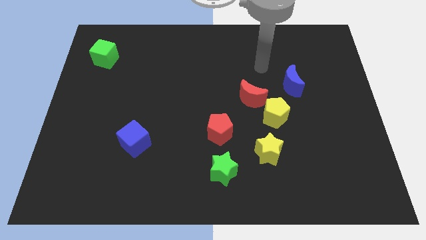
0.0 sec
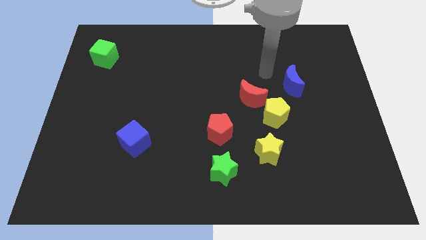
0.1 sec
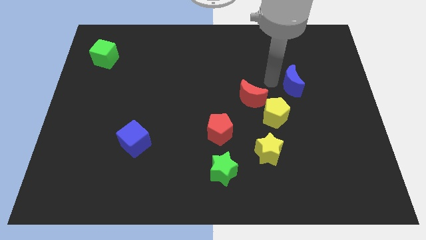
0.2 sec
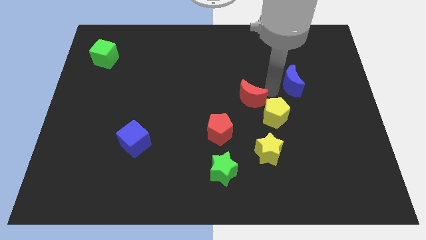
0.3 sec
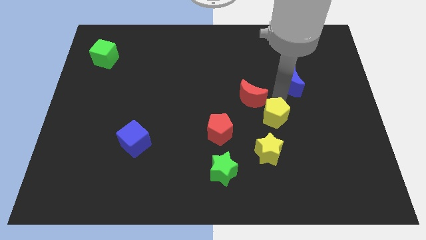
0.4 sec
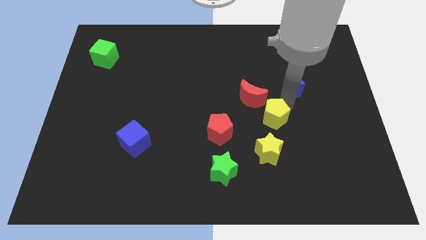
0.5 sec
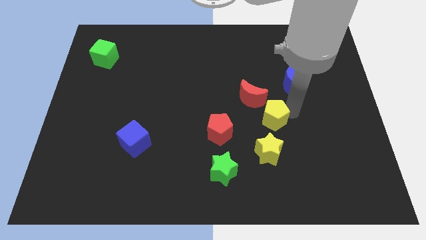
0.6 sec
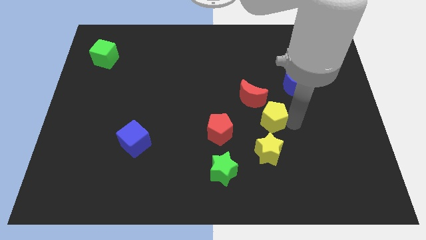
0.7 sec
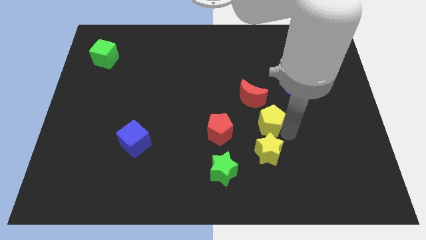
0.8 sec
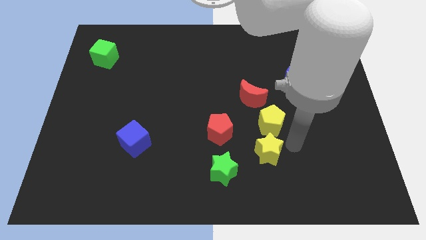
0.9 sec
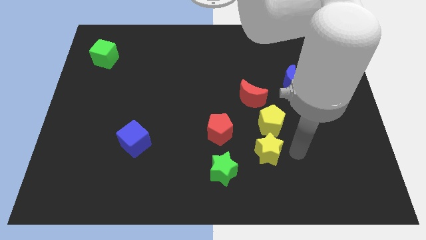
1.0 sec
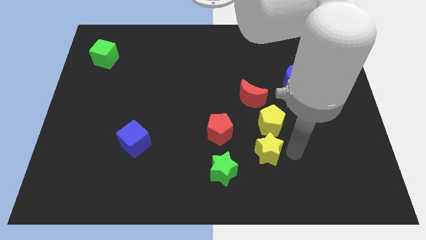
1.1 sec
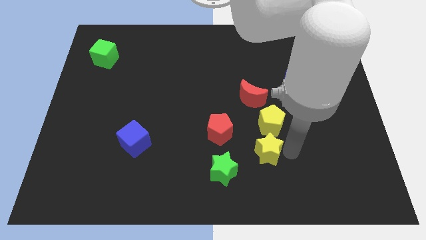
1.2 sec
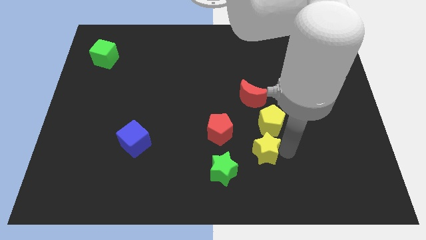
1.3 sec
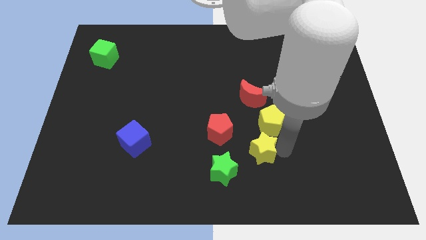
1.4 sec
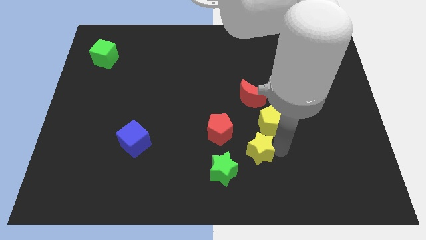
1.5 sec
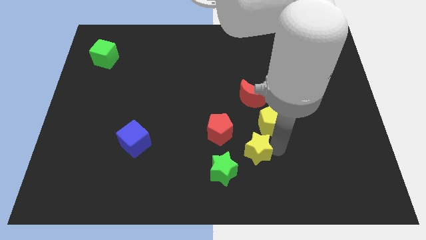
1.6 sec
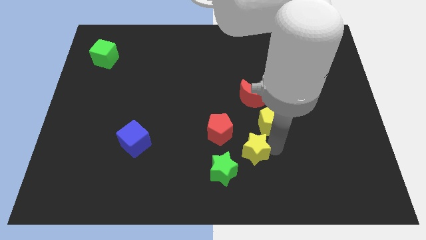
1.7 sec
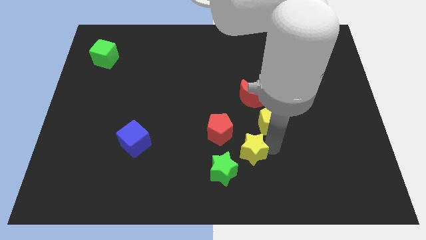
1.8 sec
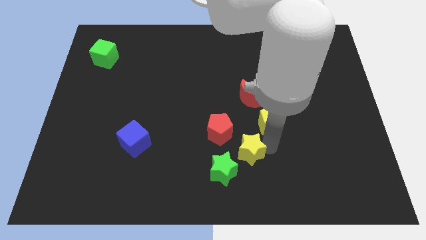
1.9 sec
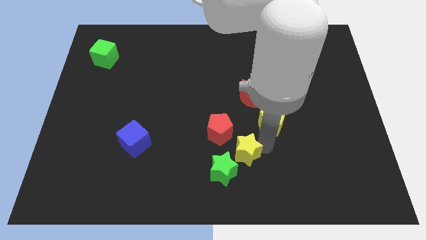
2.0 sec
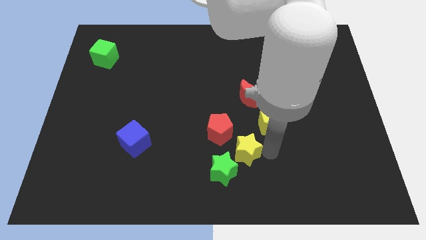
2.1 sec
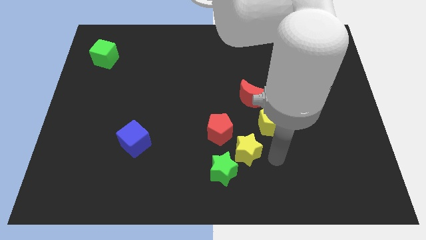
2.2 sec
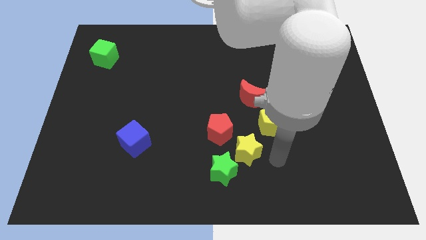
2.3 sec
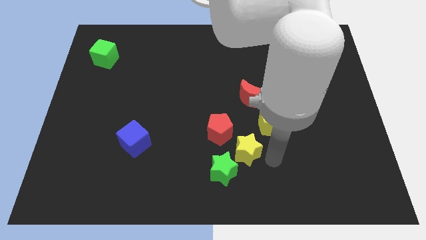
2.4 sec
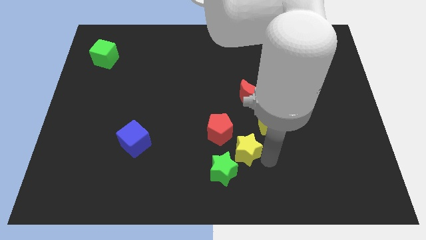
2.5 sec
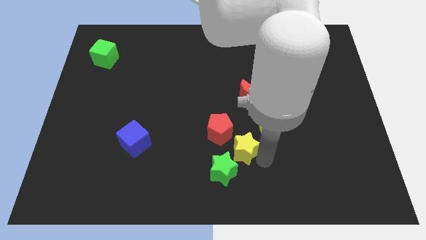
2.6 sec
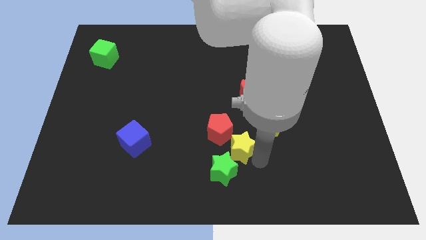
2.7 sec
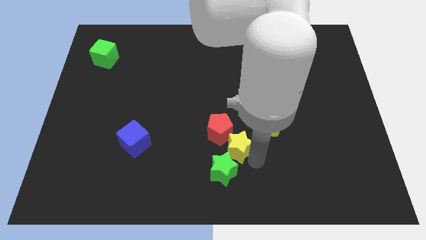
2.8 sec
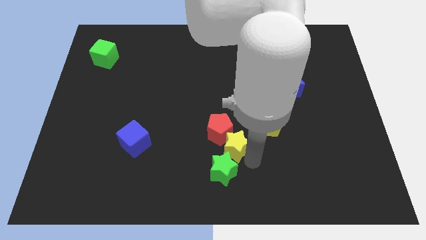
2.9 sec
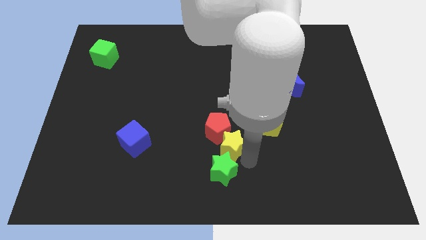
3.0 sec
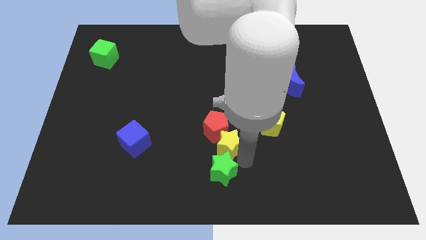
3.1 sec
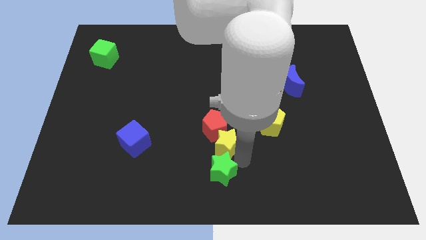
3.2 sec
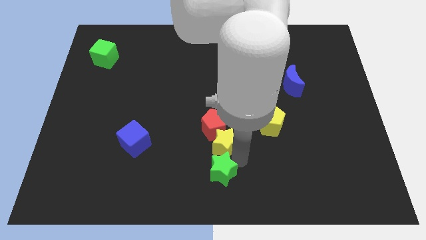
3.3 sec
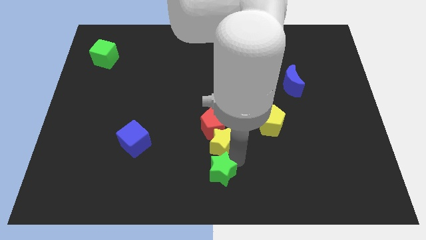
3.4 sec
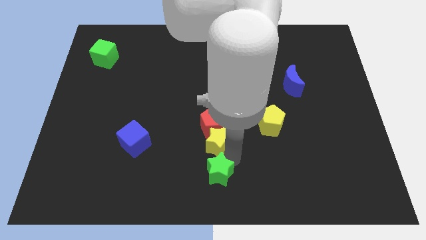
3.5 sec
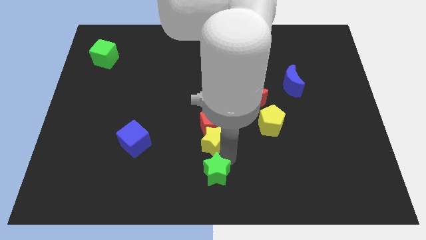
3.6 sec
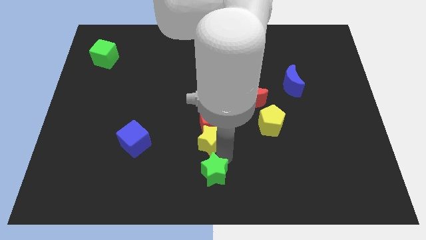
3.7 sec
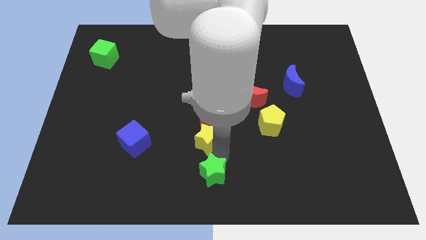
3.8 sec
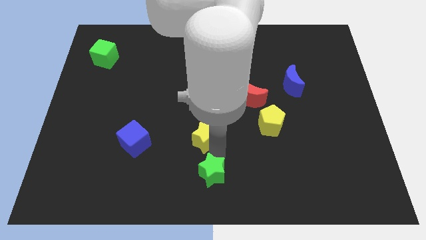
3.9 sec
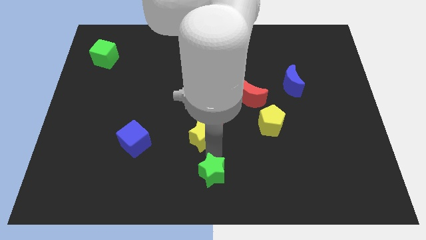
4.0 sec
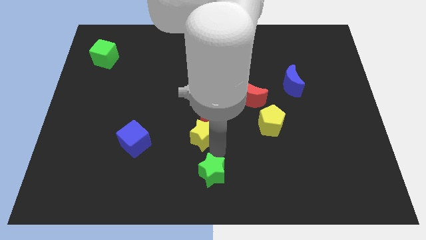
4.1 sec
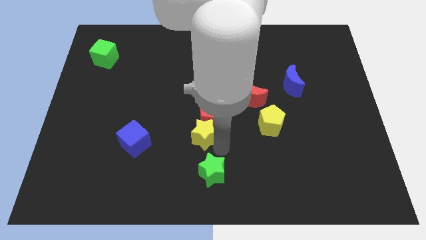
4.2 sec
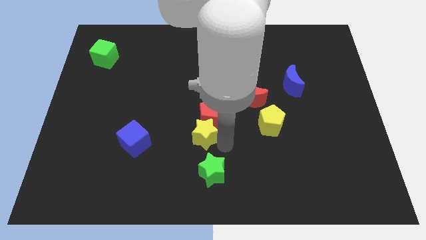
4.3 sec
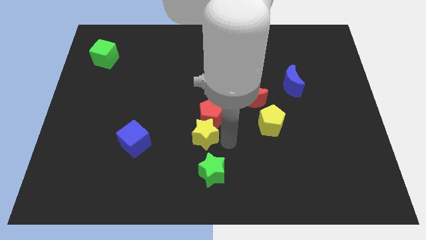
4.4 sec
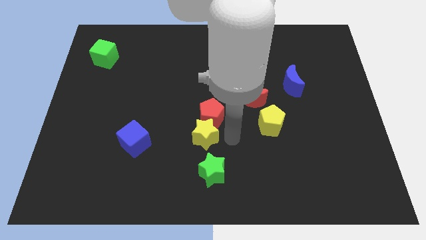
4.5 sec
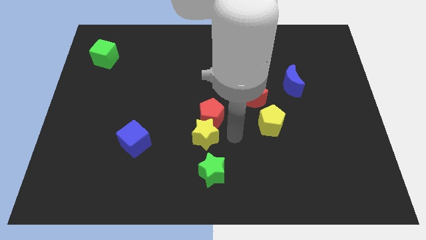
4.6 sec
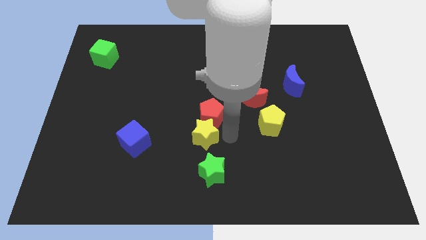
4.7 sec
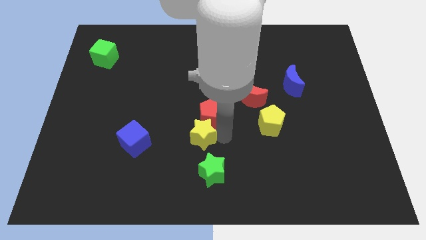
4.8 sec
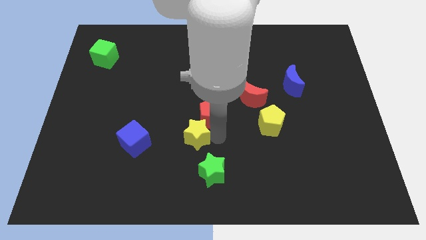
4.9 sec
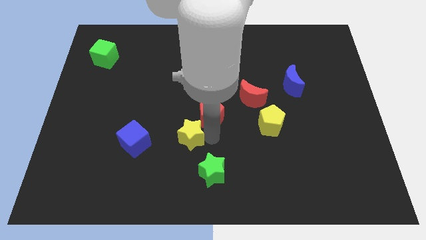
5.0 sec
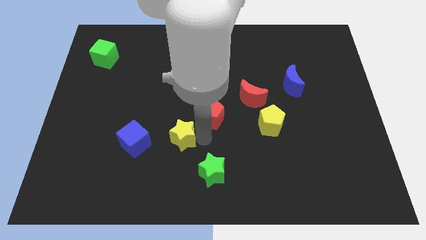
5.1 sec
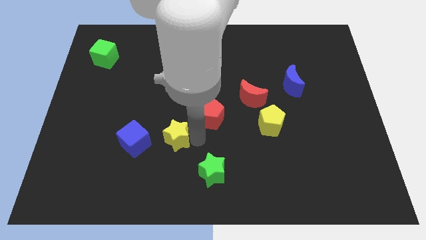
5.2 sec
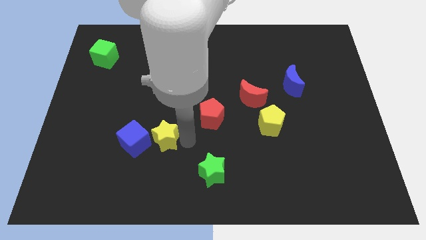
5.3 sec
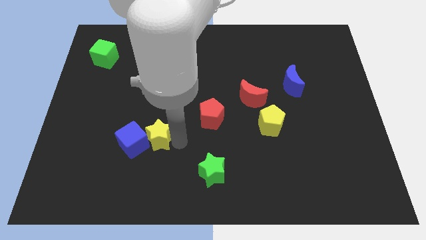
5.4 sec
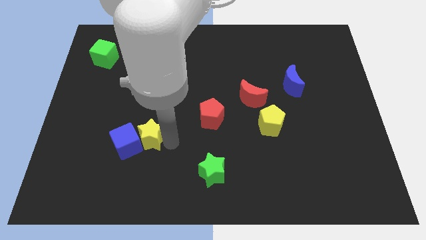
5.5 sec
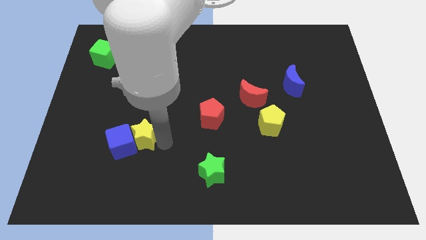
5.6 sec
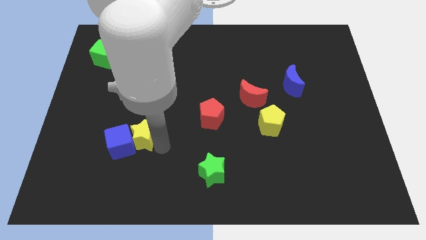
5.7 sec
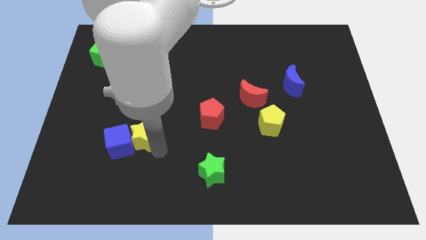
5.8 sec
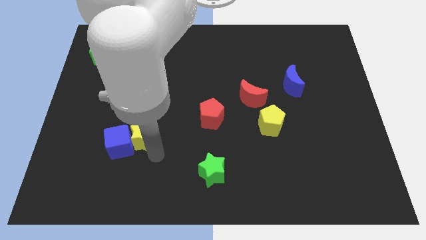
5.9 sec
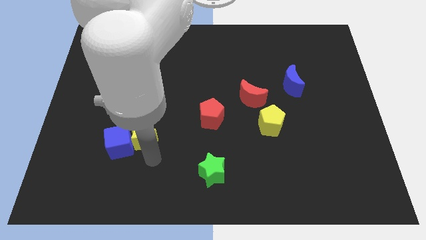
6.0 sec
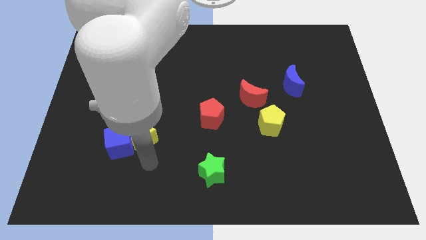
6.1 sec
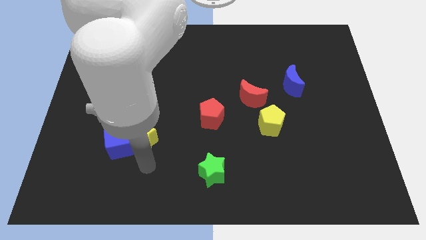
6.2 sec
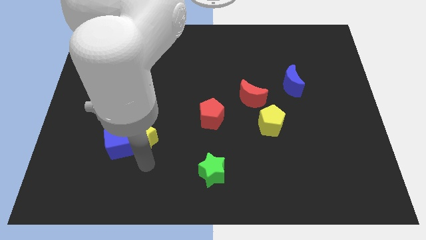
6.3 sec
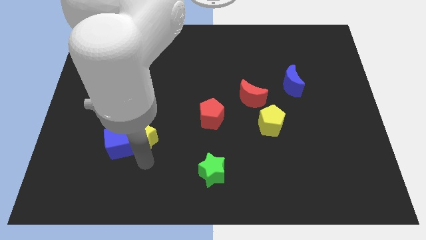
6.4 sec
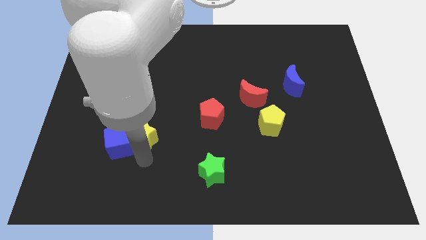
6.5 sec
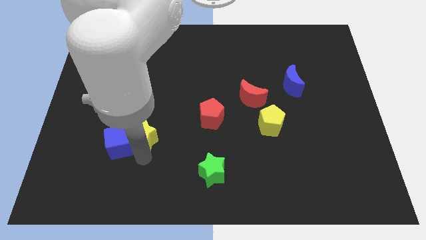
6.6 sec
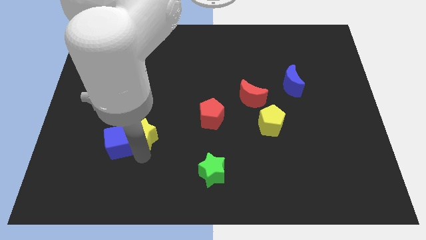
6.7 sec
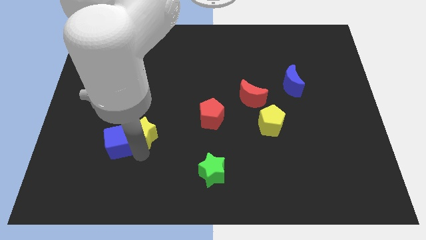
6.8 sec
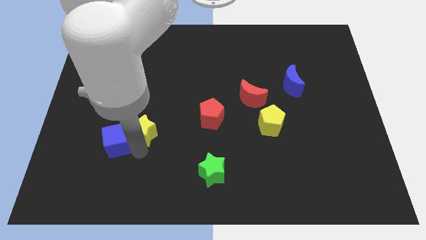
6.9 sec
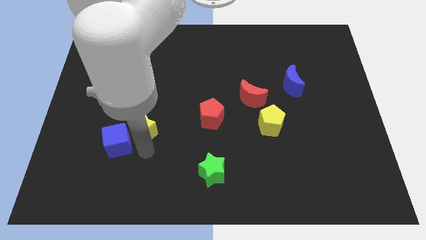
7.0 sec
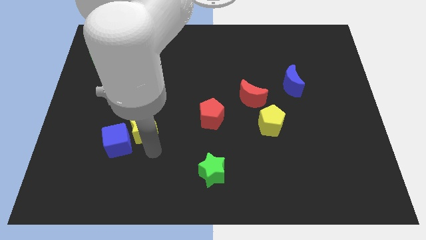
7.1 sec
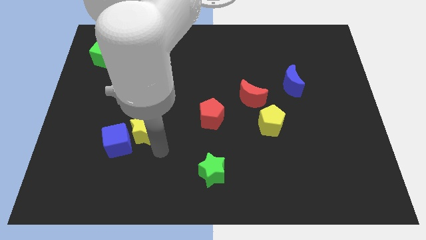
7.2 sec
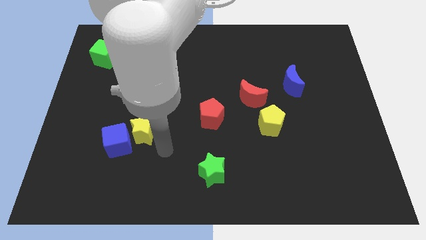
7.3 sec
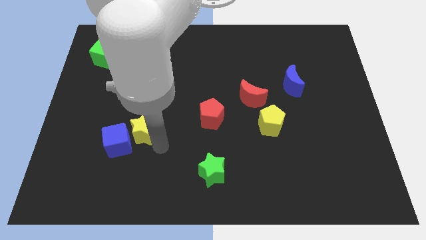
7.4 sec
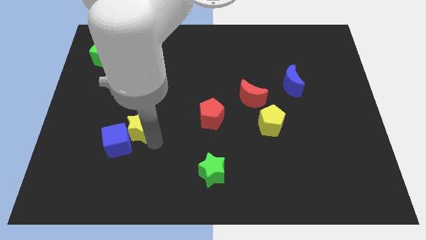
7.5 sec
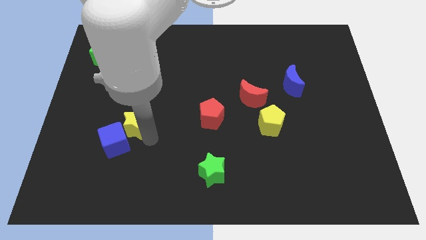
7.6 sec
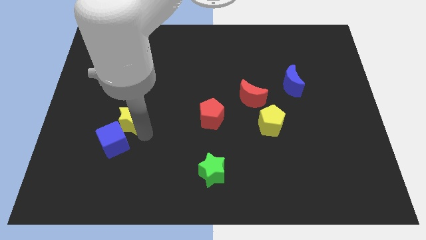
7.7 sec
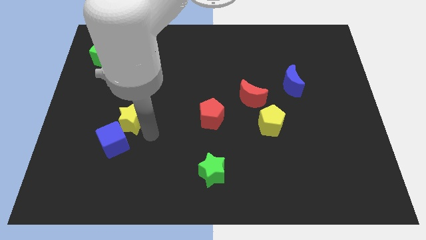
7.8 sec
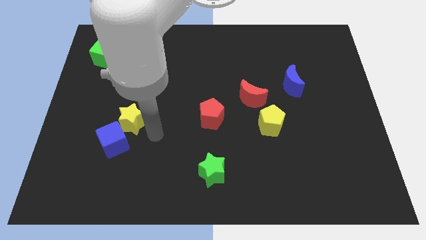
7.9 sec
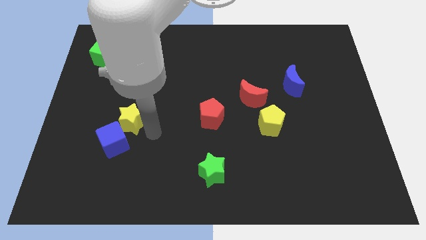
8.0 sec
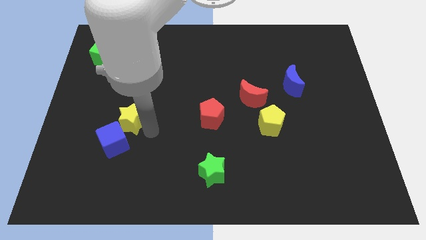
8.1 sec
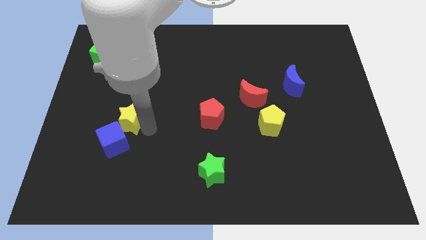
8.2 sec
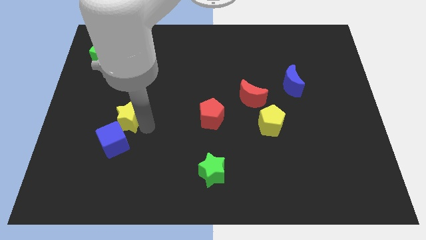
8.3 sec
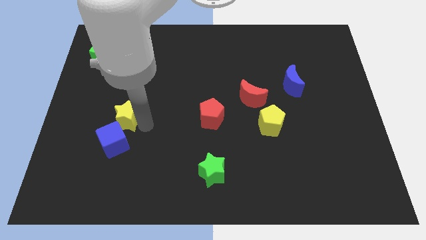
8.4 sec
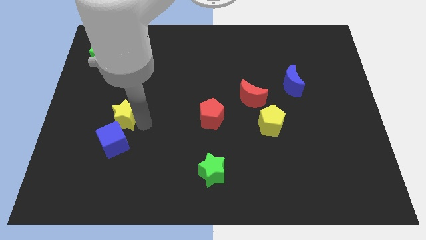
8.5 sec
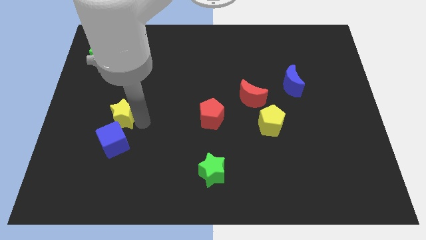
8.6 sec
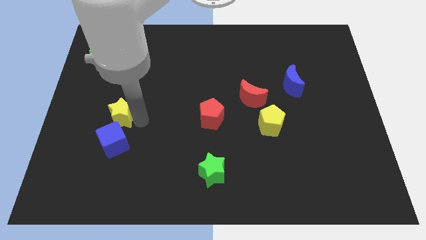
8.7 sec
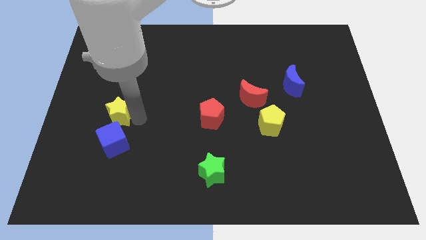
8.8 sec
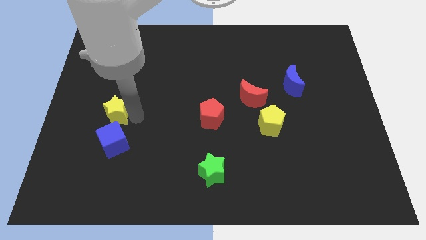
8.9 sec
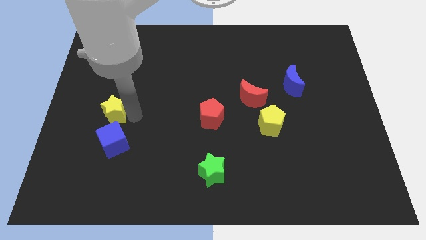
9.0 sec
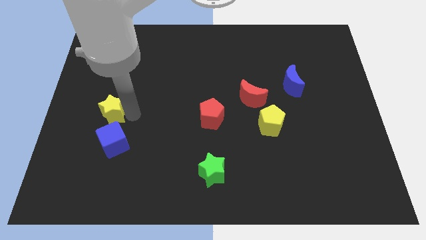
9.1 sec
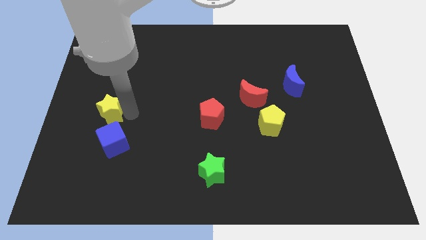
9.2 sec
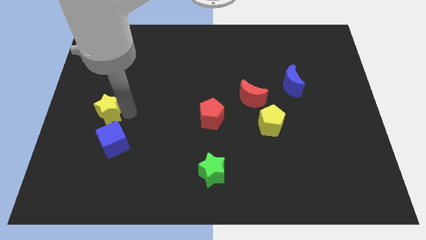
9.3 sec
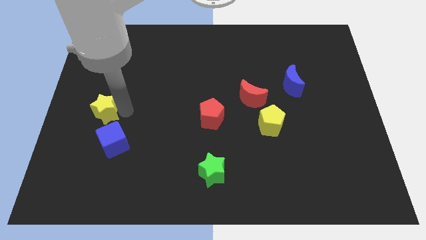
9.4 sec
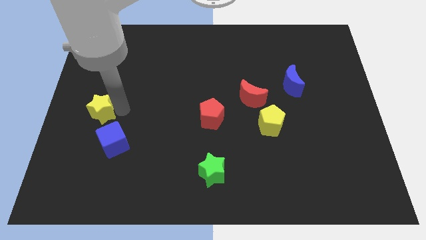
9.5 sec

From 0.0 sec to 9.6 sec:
slide the yellow star to the left side
